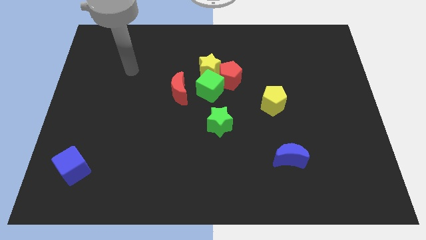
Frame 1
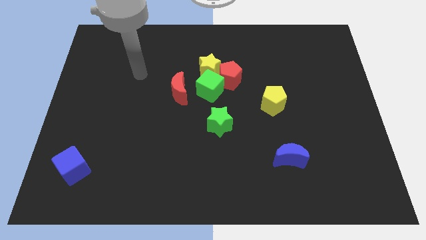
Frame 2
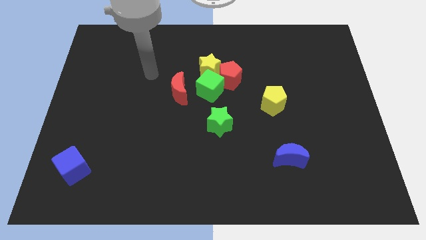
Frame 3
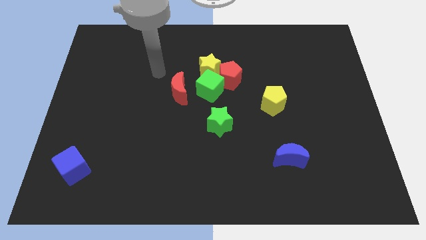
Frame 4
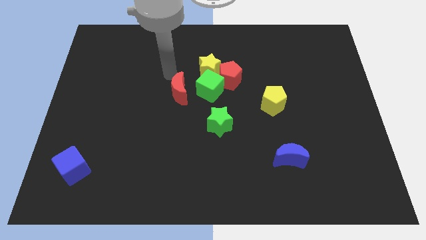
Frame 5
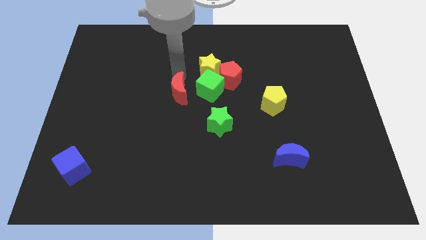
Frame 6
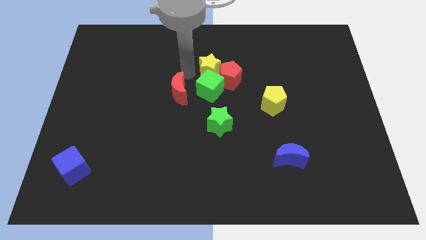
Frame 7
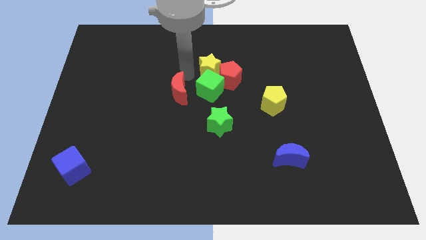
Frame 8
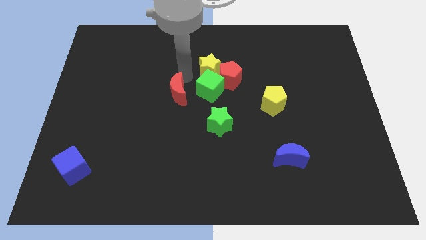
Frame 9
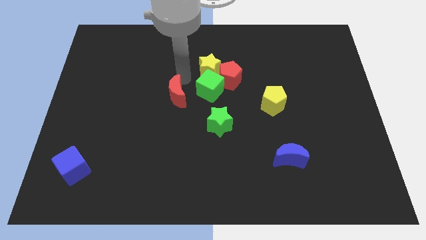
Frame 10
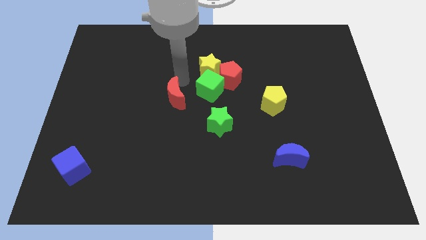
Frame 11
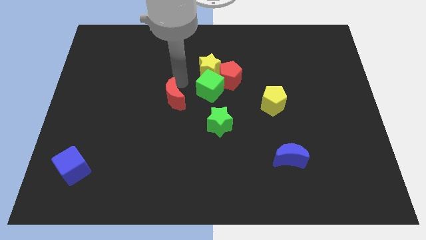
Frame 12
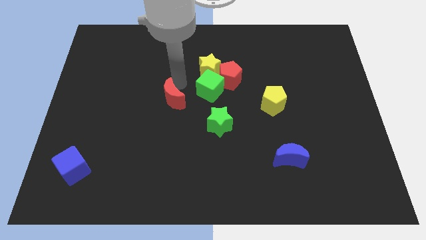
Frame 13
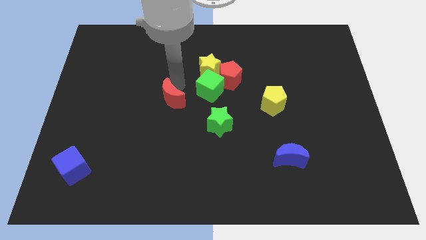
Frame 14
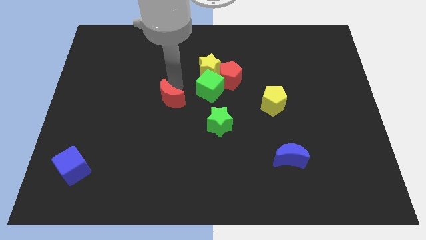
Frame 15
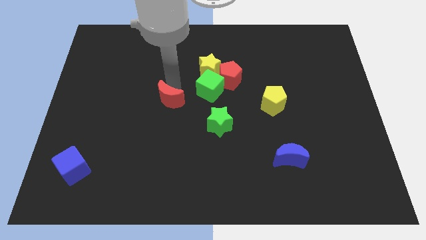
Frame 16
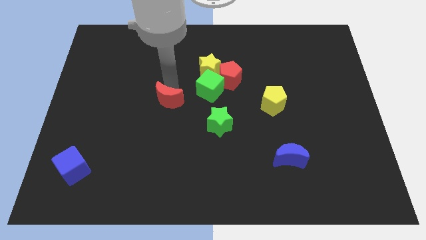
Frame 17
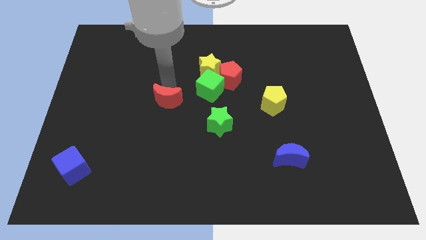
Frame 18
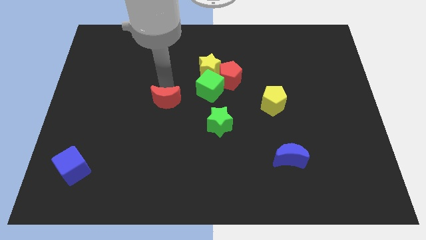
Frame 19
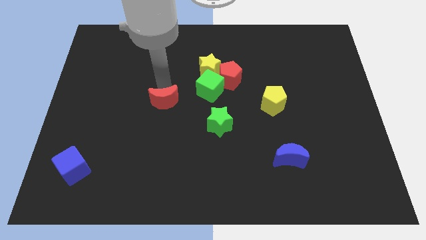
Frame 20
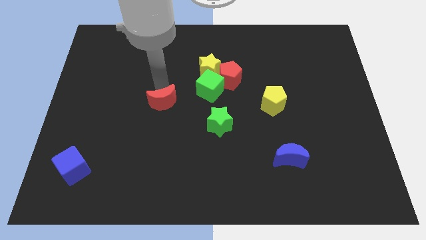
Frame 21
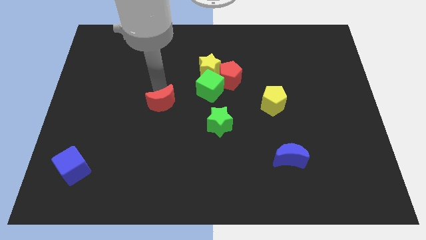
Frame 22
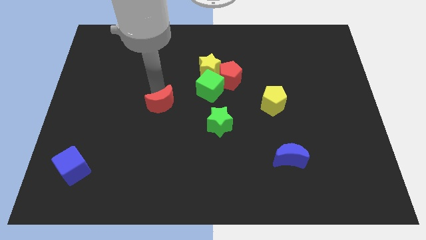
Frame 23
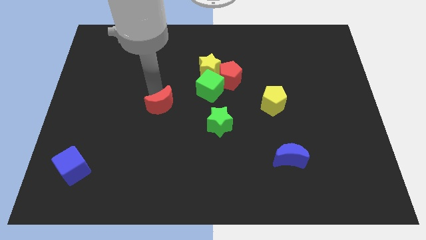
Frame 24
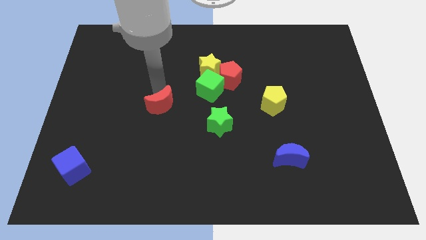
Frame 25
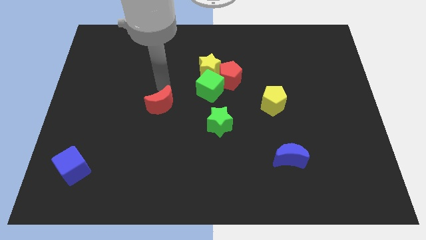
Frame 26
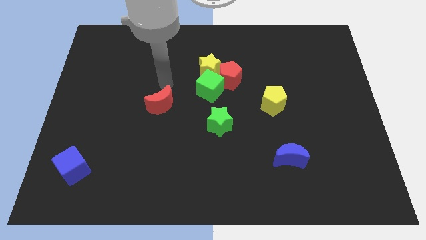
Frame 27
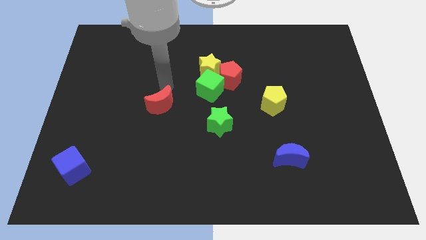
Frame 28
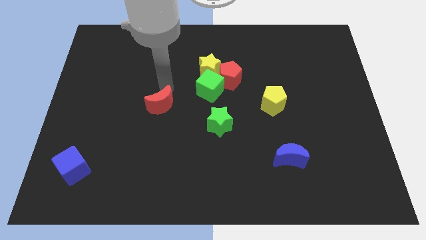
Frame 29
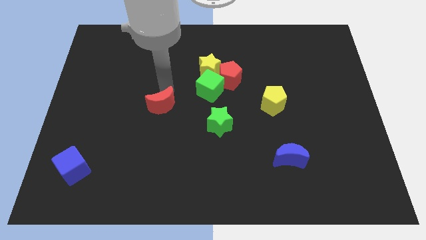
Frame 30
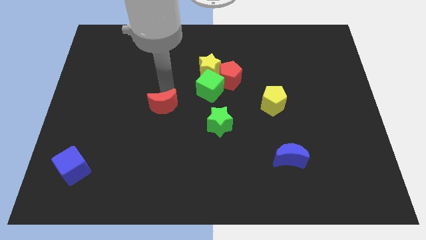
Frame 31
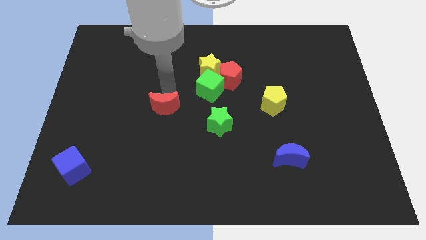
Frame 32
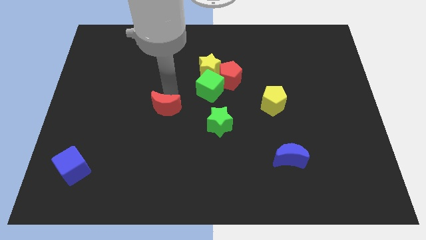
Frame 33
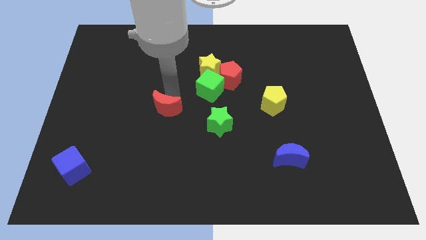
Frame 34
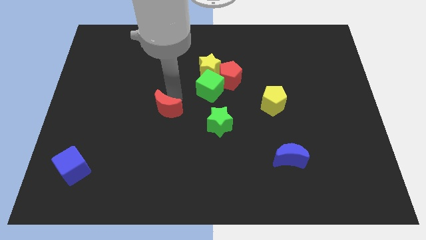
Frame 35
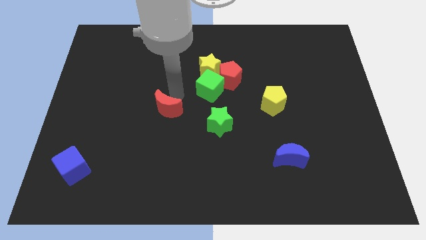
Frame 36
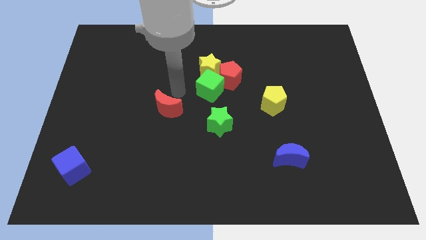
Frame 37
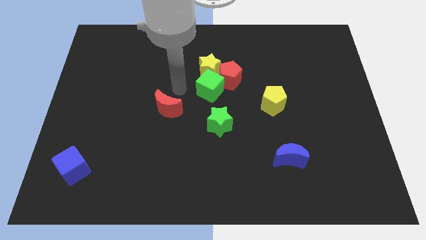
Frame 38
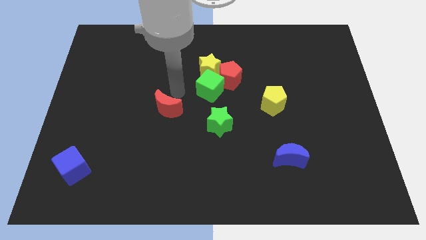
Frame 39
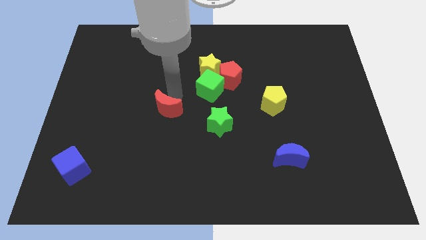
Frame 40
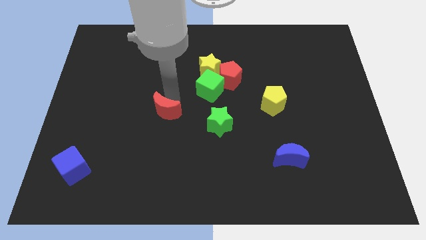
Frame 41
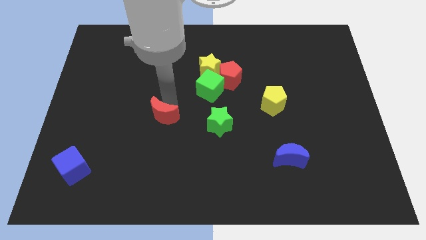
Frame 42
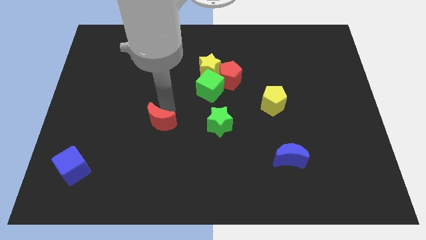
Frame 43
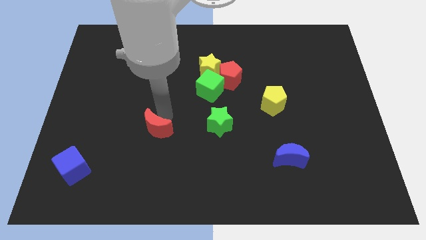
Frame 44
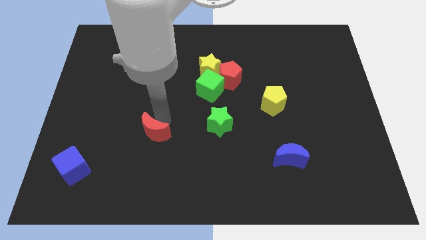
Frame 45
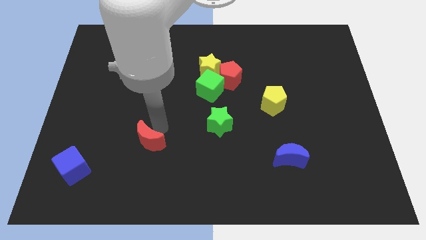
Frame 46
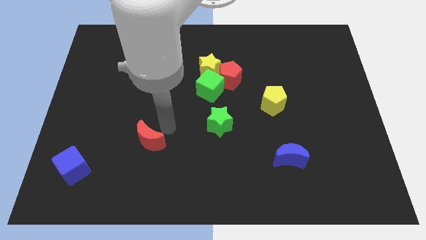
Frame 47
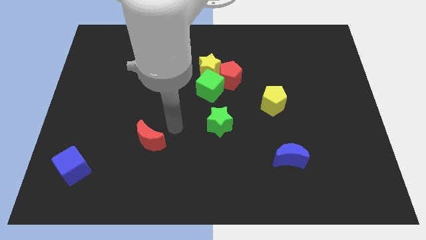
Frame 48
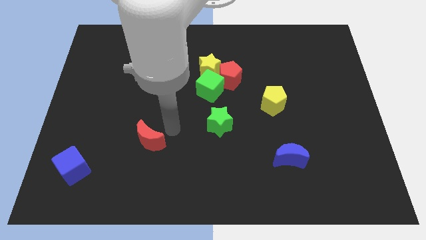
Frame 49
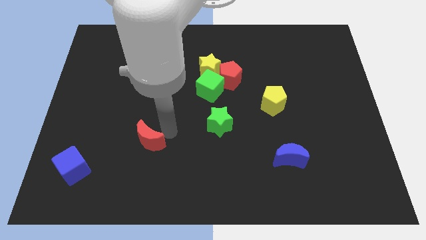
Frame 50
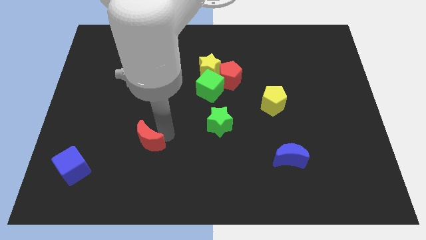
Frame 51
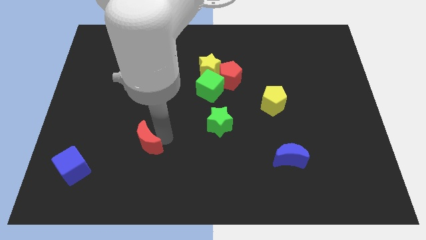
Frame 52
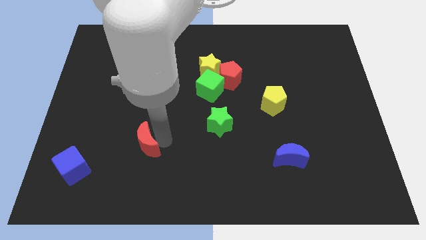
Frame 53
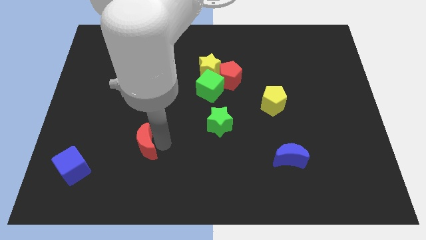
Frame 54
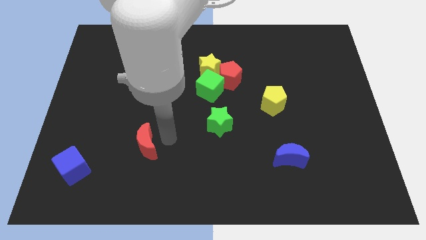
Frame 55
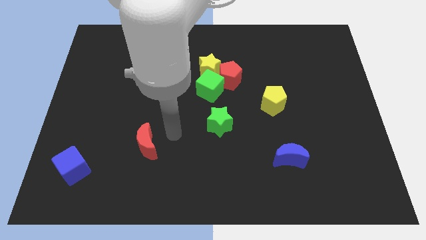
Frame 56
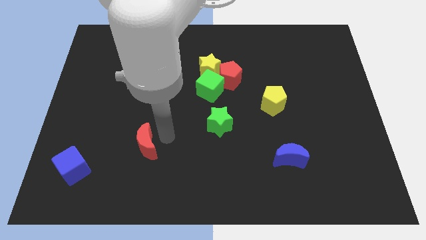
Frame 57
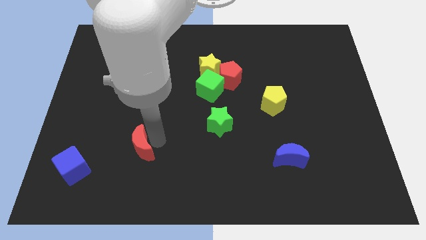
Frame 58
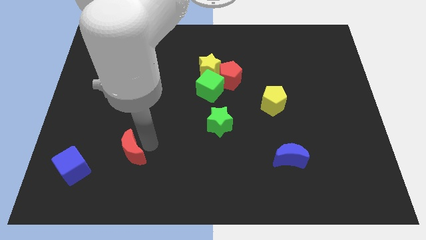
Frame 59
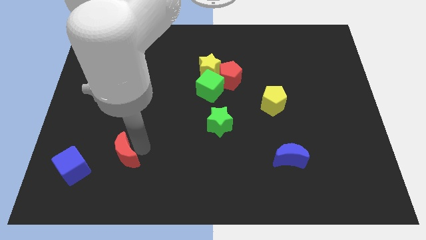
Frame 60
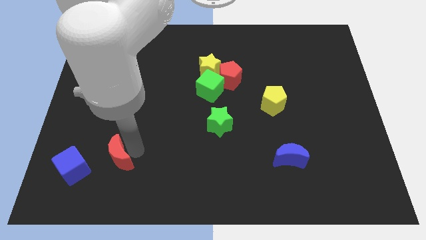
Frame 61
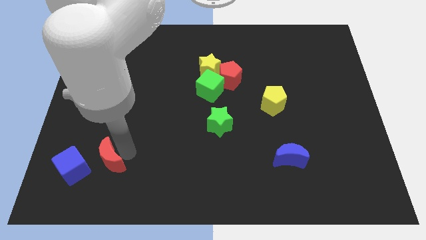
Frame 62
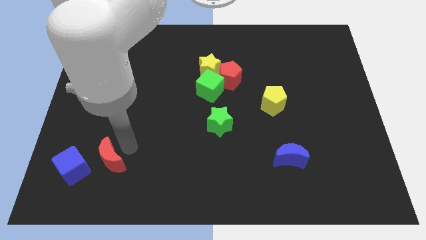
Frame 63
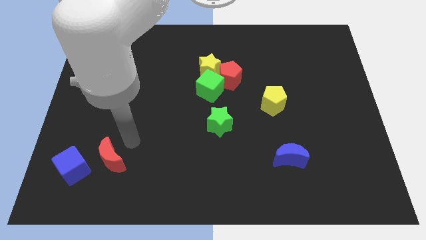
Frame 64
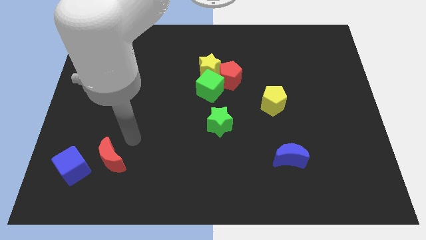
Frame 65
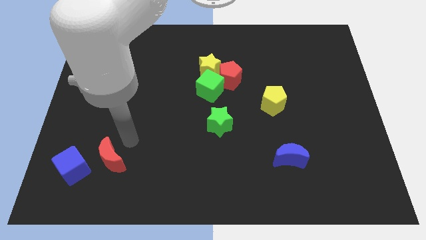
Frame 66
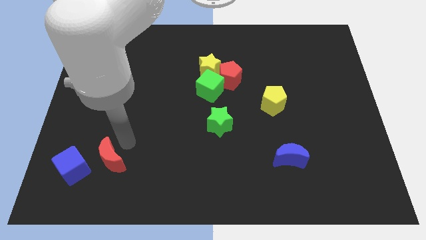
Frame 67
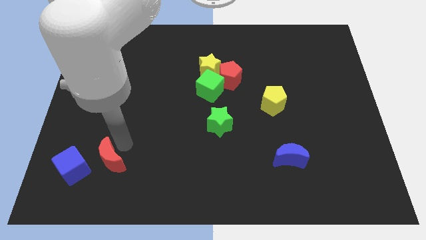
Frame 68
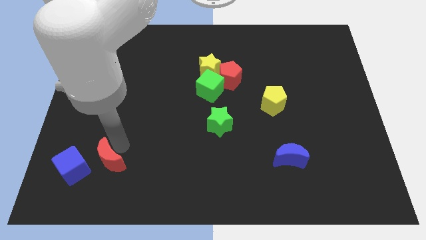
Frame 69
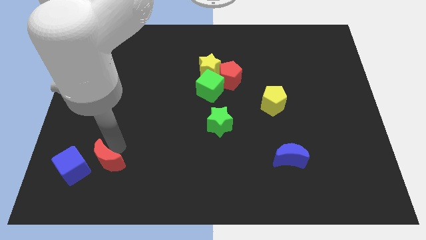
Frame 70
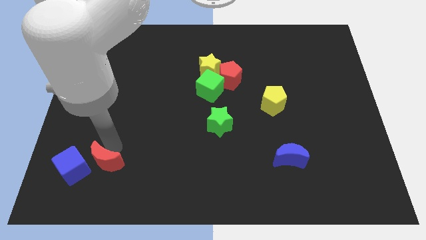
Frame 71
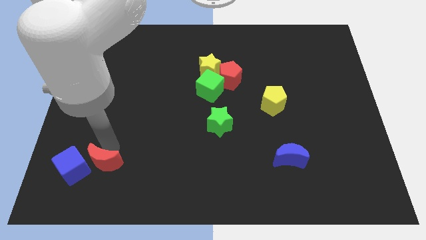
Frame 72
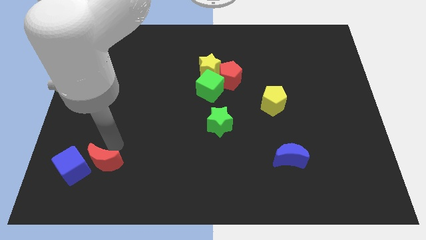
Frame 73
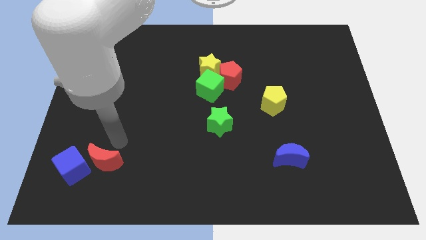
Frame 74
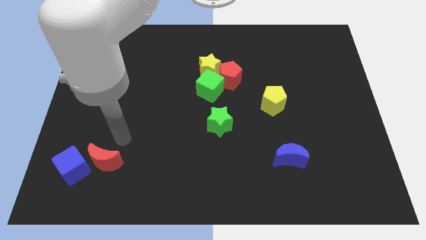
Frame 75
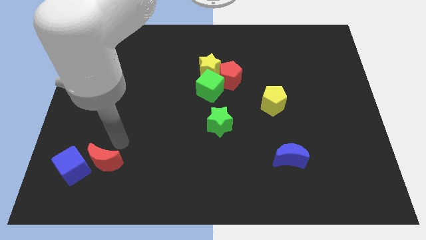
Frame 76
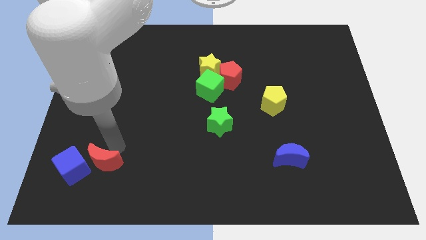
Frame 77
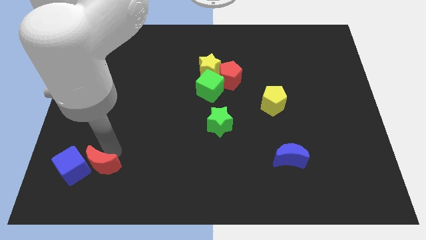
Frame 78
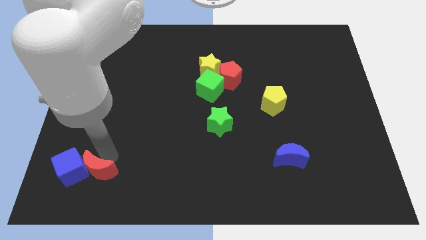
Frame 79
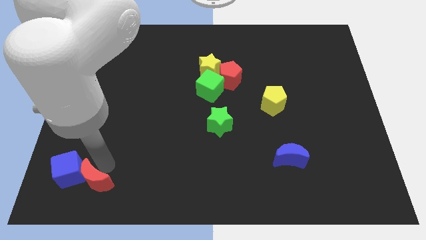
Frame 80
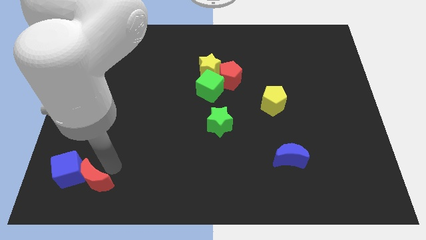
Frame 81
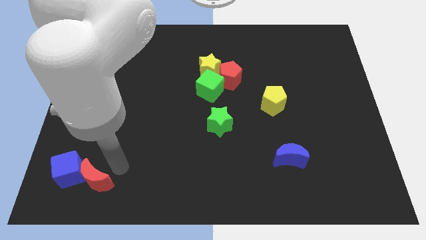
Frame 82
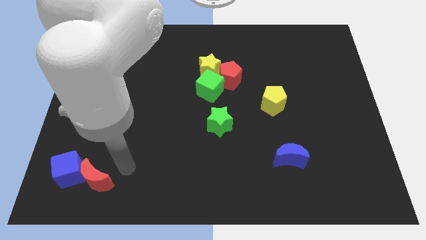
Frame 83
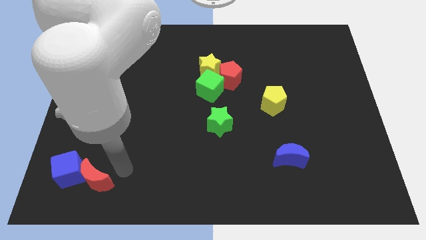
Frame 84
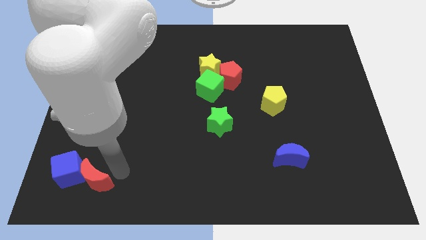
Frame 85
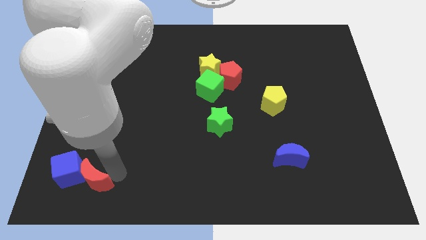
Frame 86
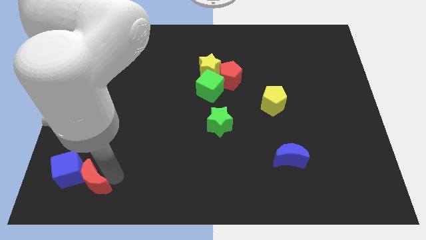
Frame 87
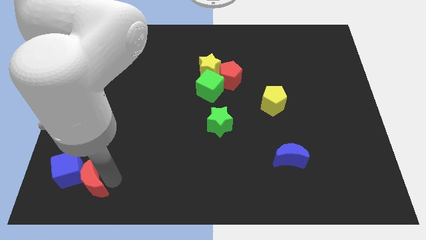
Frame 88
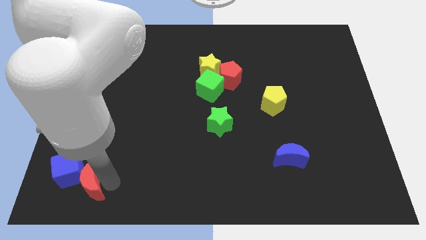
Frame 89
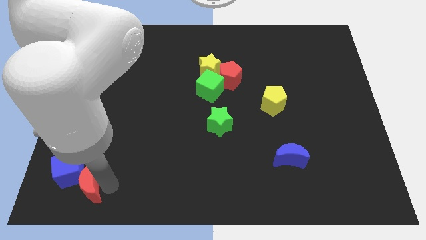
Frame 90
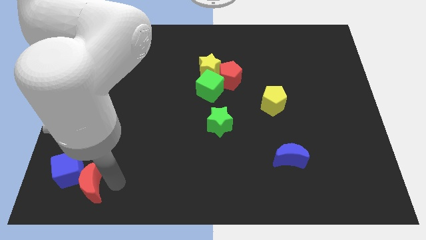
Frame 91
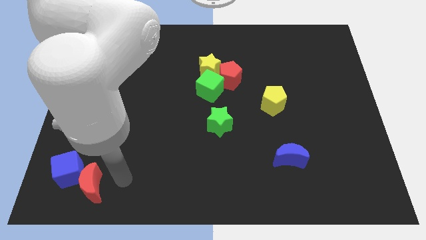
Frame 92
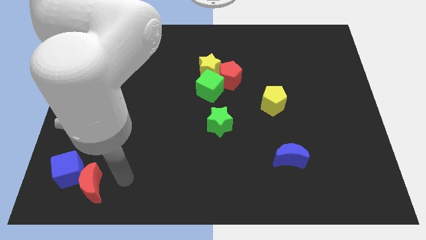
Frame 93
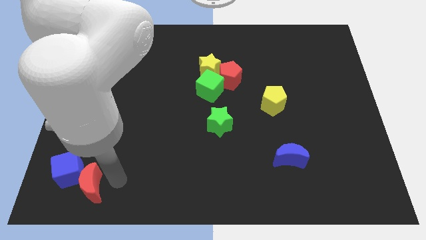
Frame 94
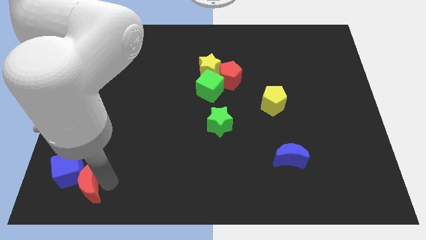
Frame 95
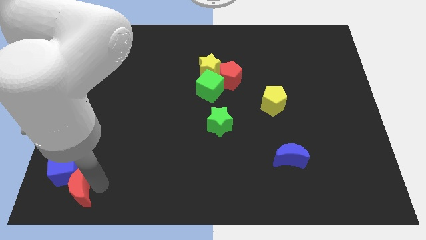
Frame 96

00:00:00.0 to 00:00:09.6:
put the red moon to the bottom left of the board
